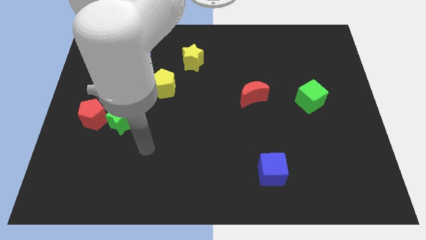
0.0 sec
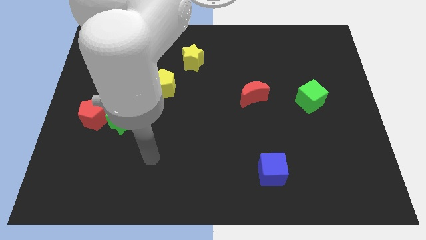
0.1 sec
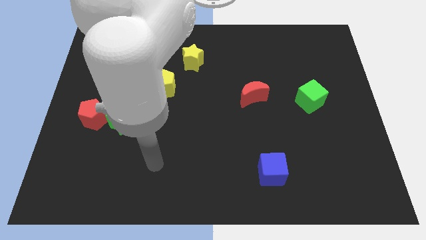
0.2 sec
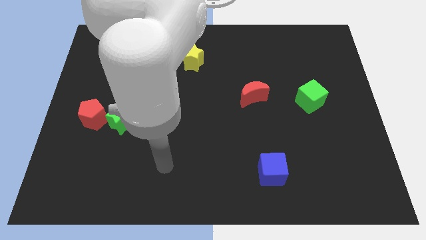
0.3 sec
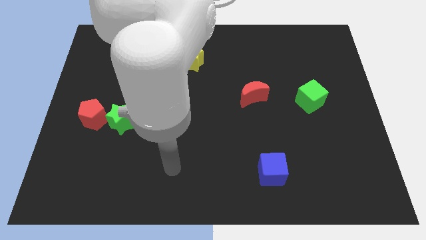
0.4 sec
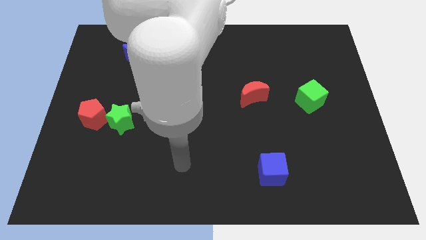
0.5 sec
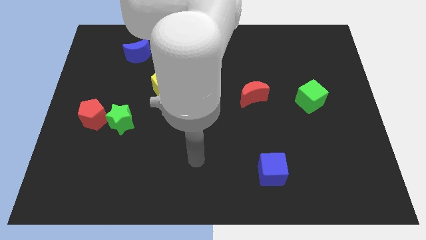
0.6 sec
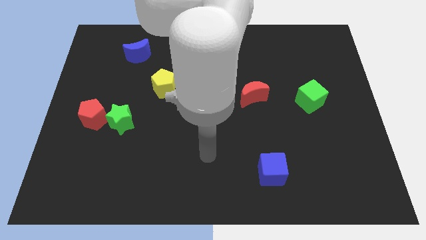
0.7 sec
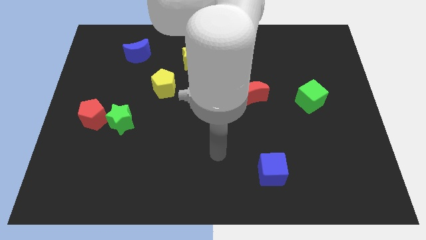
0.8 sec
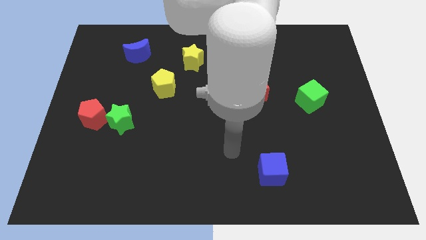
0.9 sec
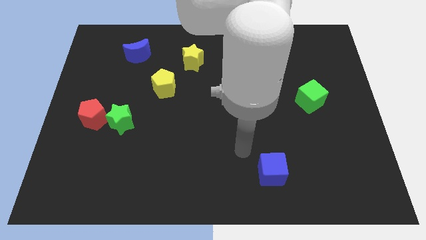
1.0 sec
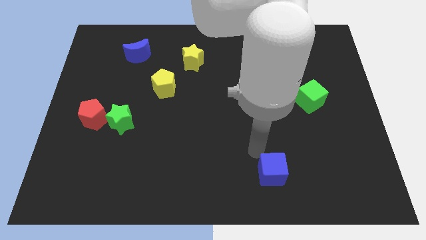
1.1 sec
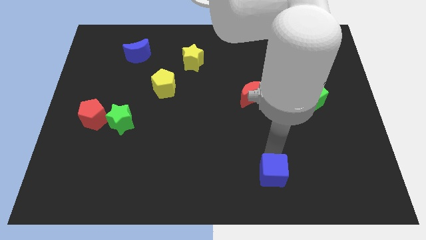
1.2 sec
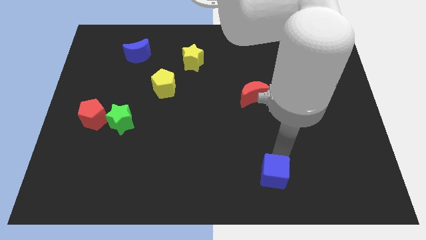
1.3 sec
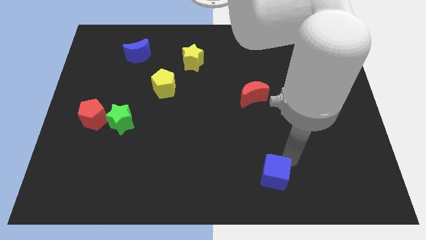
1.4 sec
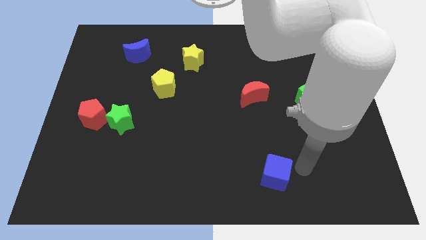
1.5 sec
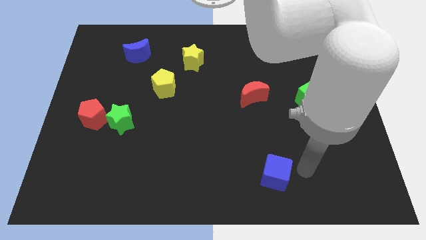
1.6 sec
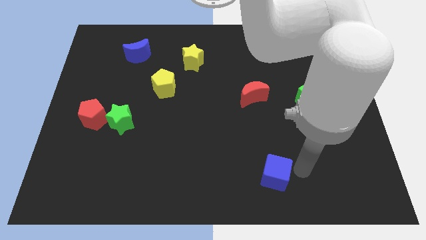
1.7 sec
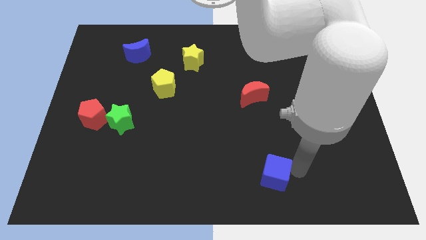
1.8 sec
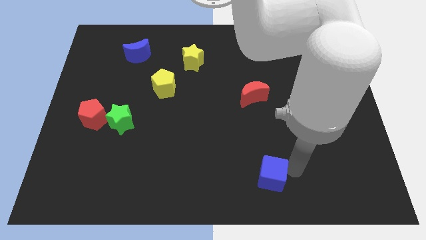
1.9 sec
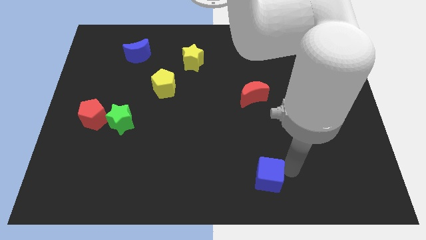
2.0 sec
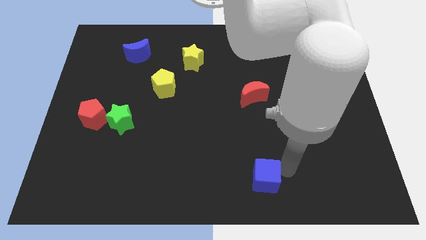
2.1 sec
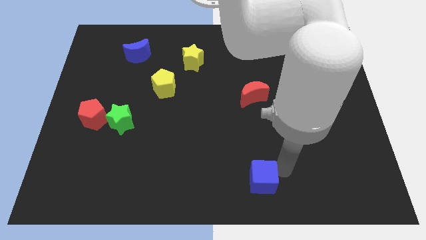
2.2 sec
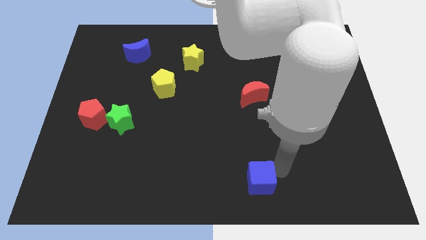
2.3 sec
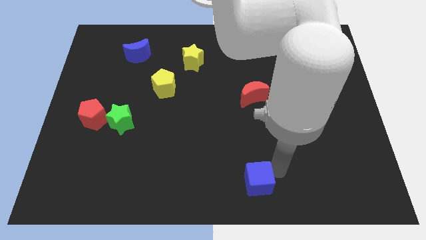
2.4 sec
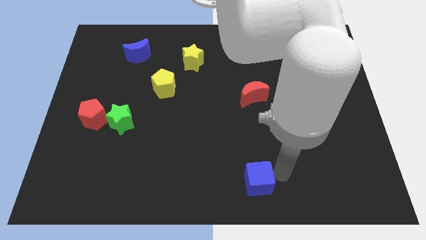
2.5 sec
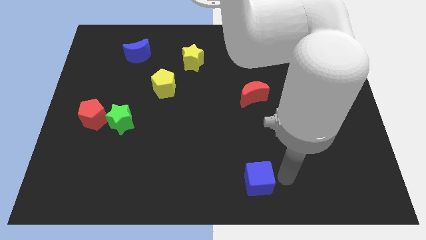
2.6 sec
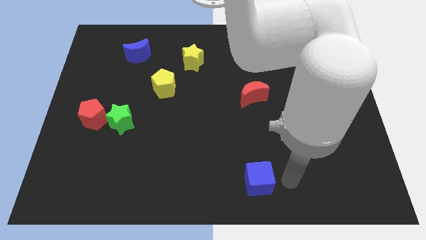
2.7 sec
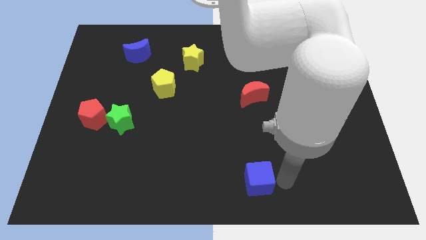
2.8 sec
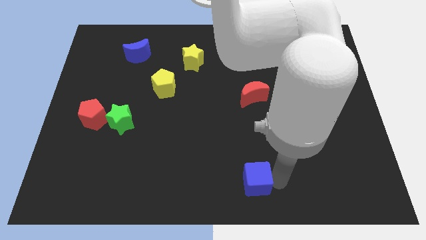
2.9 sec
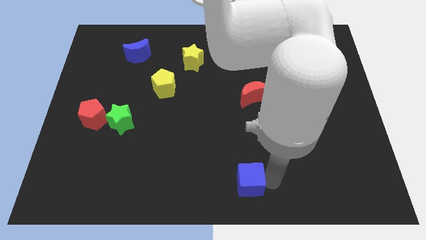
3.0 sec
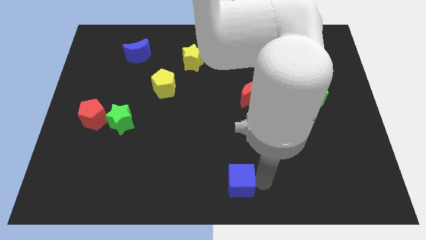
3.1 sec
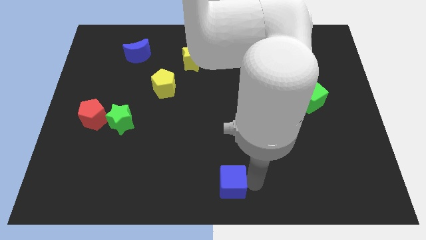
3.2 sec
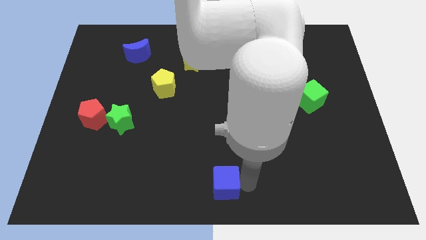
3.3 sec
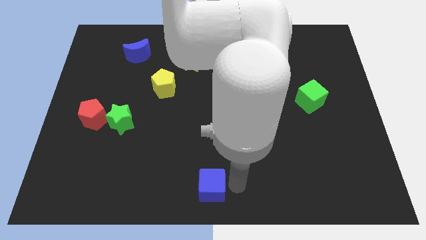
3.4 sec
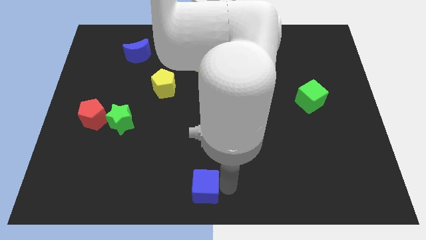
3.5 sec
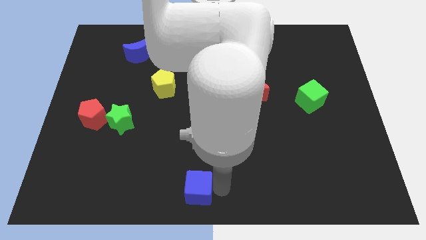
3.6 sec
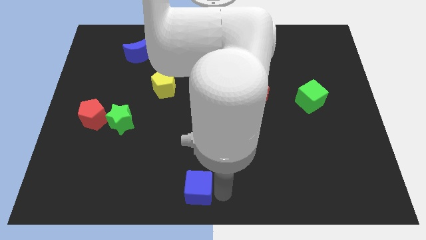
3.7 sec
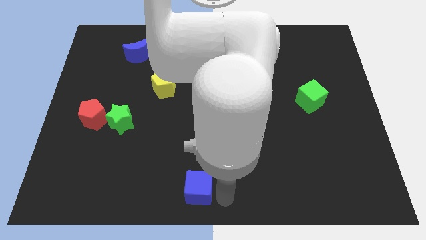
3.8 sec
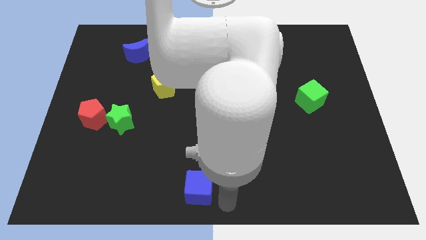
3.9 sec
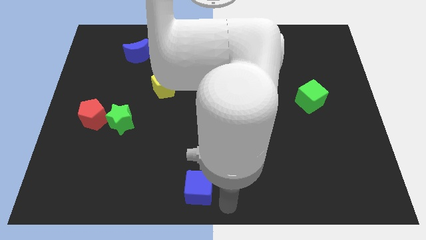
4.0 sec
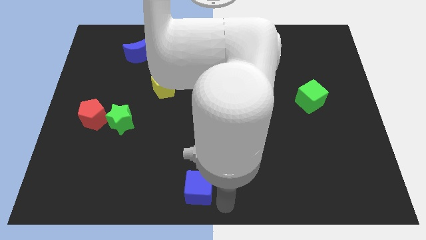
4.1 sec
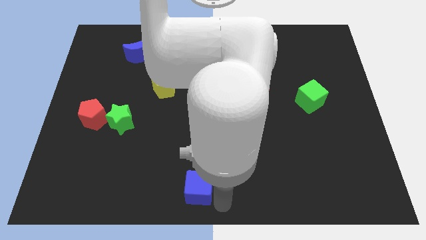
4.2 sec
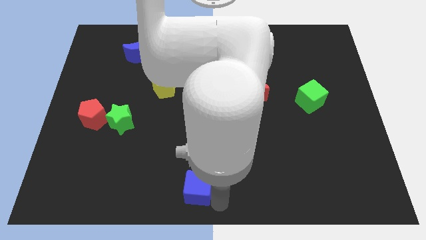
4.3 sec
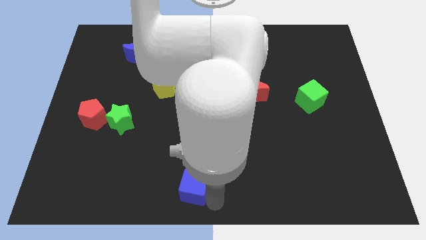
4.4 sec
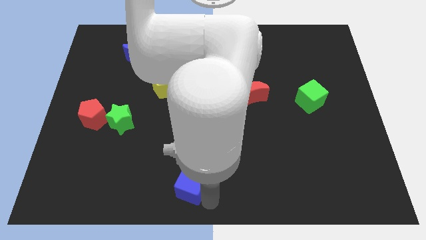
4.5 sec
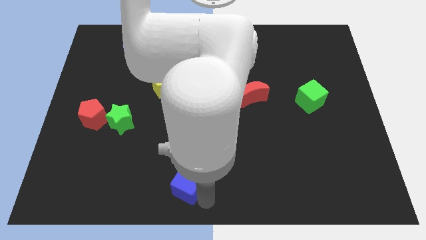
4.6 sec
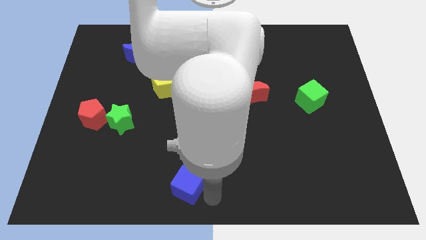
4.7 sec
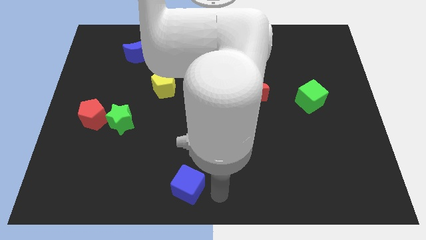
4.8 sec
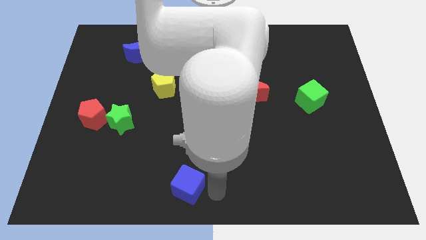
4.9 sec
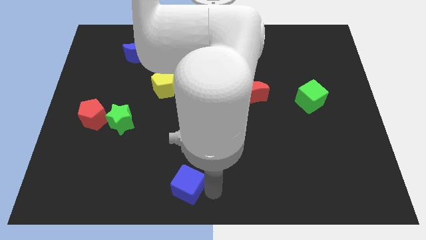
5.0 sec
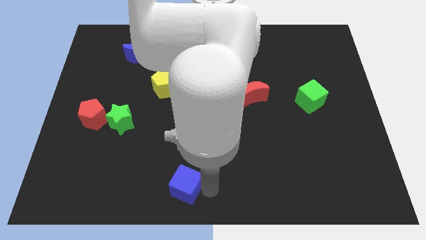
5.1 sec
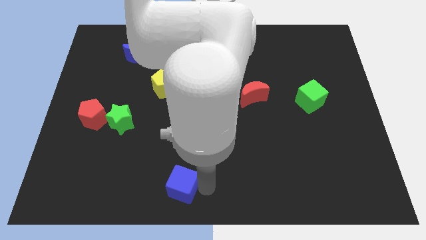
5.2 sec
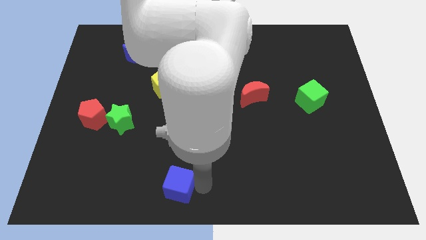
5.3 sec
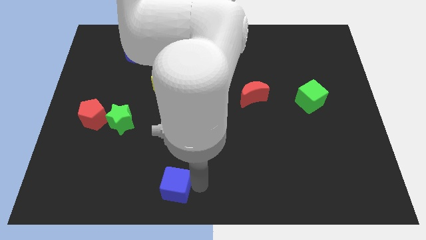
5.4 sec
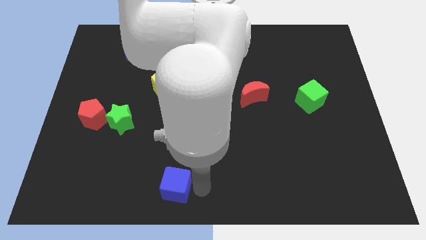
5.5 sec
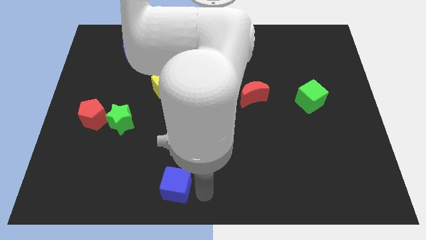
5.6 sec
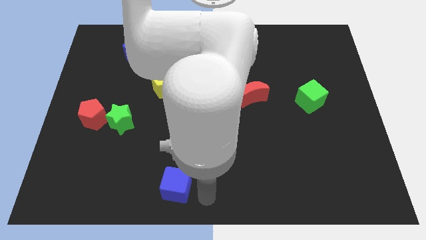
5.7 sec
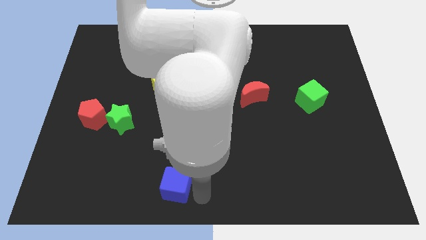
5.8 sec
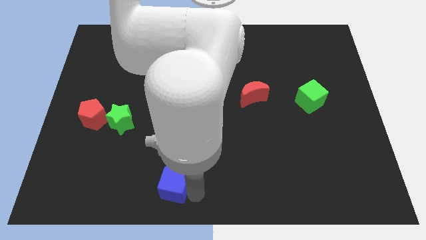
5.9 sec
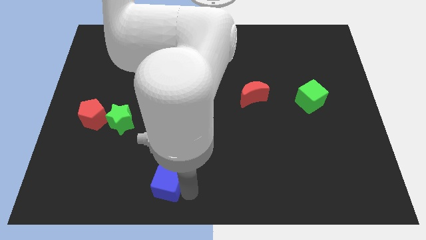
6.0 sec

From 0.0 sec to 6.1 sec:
move the blue cube left

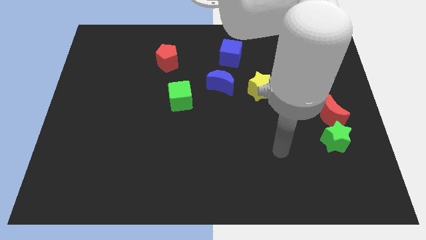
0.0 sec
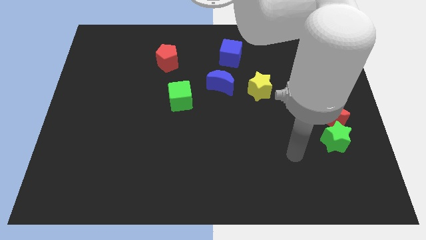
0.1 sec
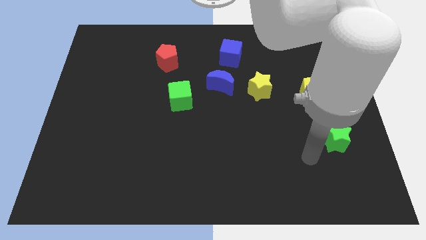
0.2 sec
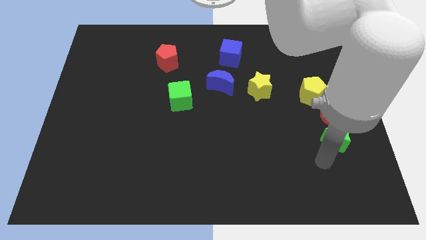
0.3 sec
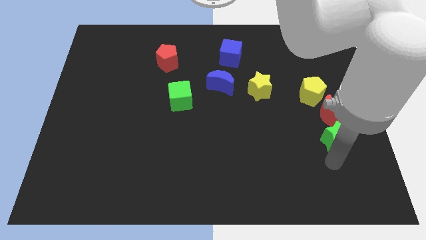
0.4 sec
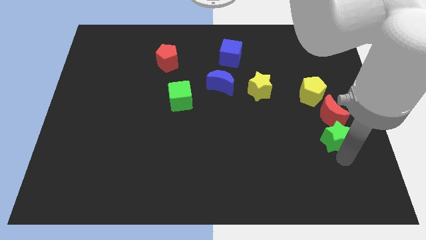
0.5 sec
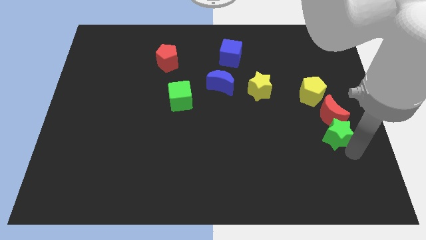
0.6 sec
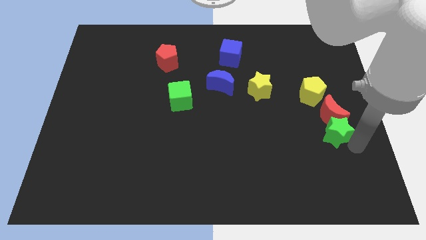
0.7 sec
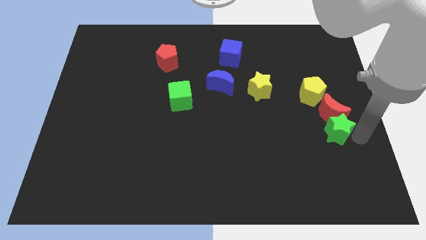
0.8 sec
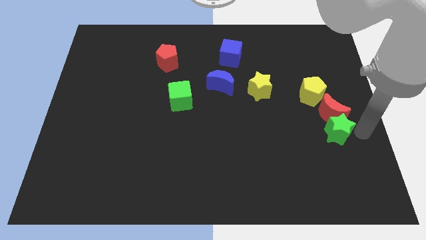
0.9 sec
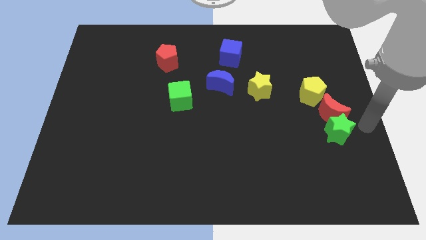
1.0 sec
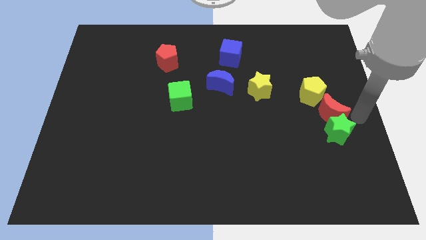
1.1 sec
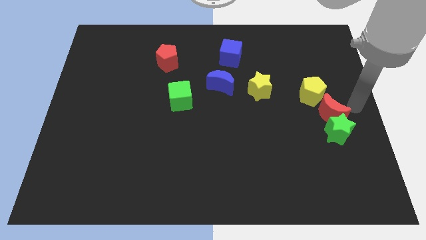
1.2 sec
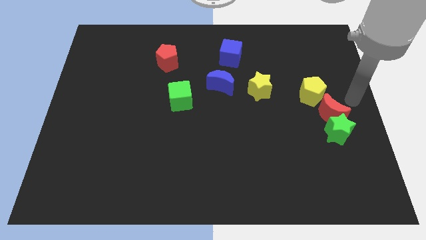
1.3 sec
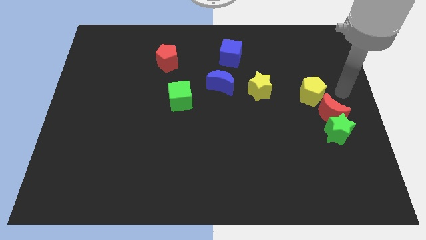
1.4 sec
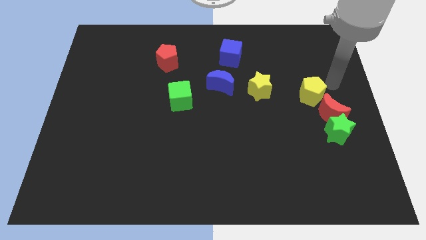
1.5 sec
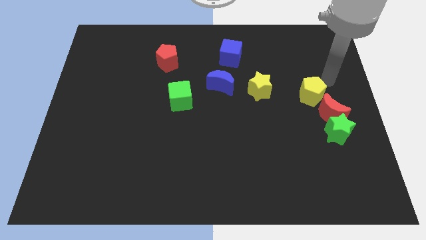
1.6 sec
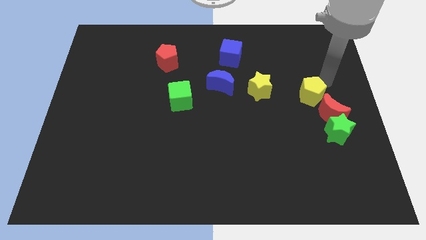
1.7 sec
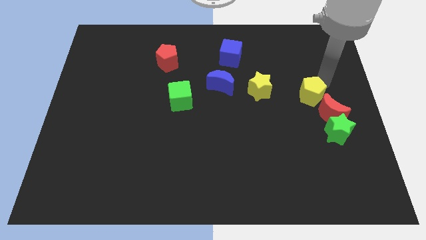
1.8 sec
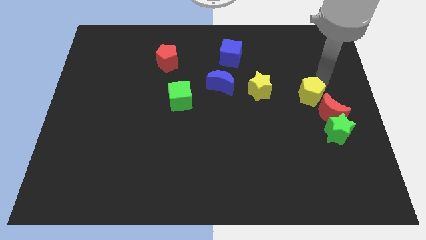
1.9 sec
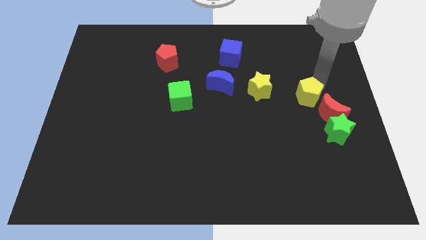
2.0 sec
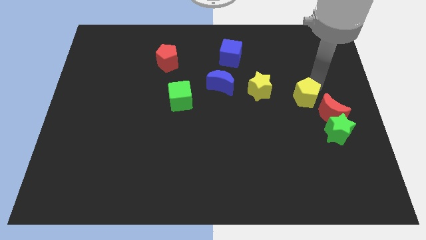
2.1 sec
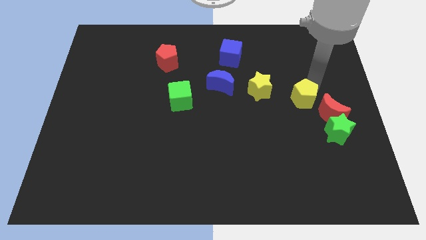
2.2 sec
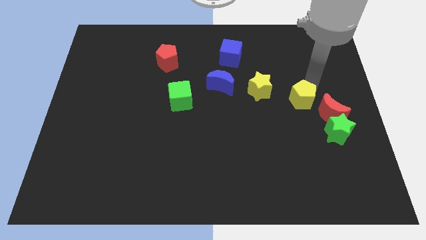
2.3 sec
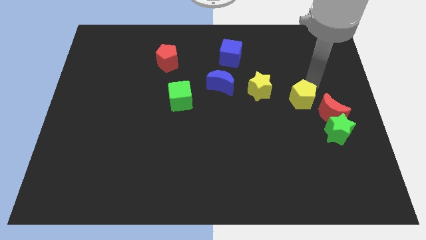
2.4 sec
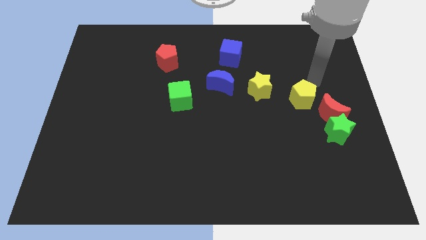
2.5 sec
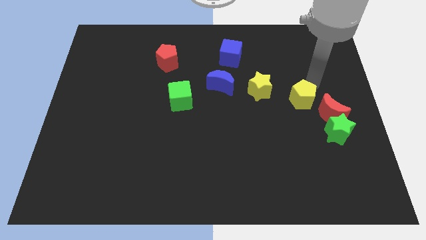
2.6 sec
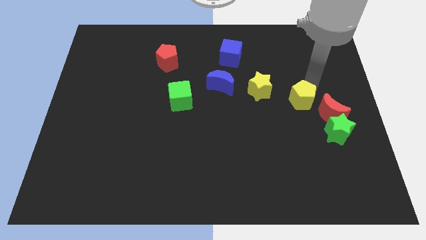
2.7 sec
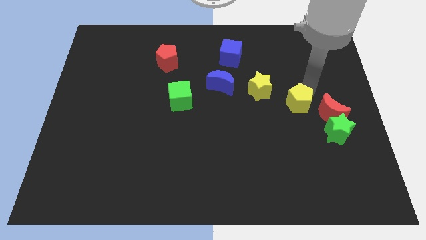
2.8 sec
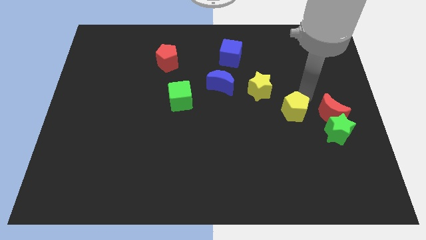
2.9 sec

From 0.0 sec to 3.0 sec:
push the yellow pentagon down and to the left slightly
